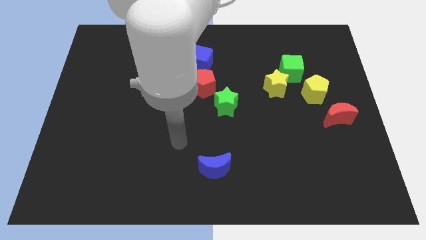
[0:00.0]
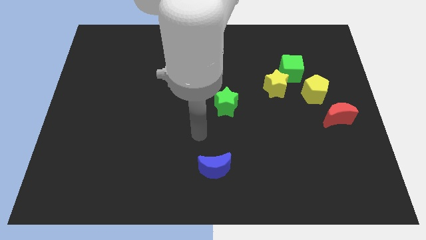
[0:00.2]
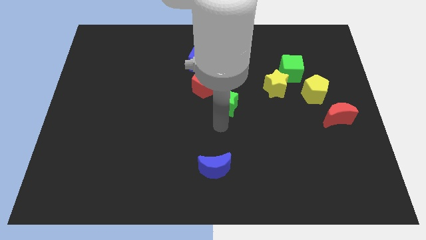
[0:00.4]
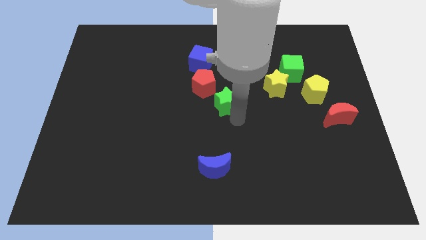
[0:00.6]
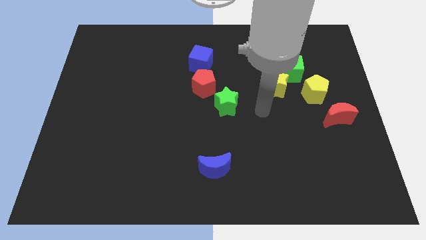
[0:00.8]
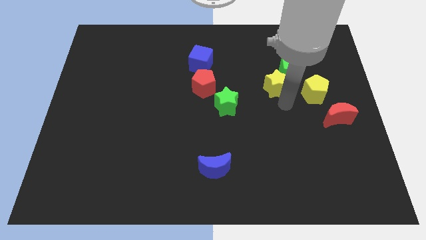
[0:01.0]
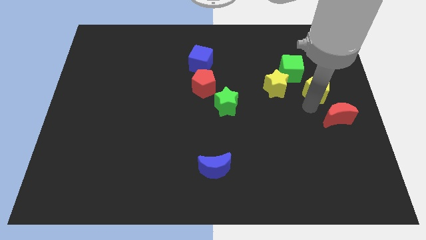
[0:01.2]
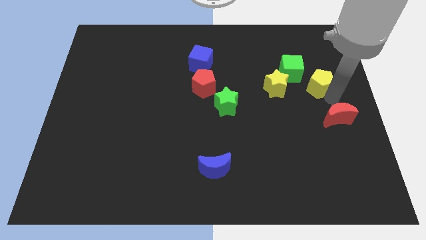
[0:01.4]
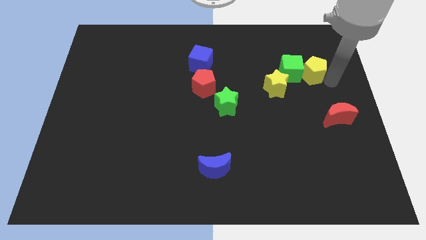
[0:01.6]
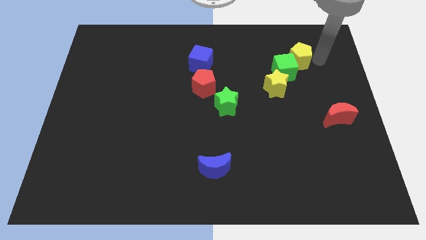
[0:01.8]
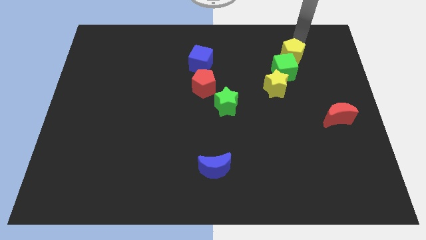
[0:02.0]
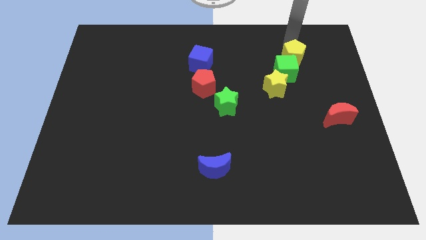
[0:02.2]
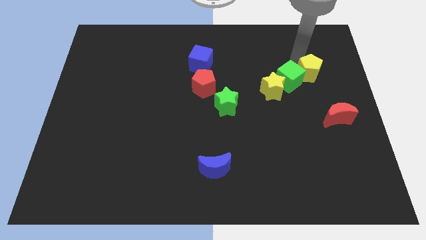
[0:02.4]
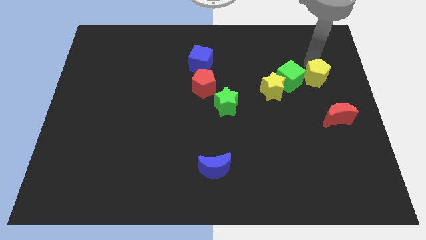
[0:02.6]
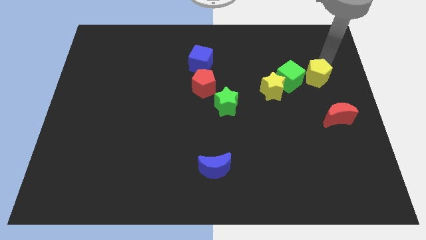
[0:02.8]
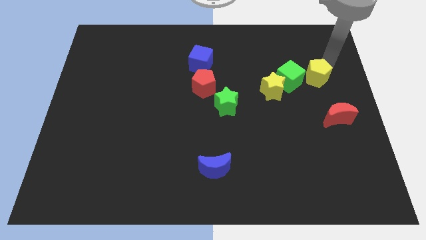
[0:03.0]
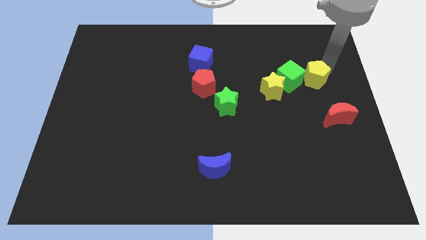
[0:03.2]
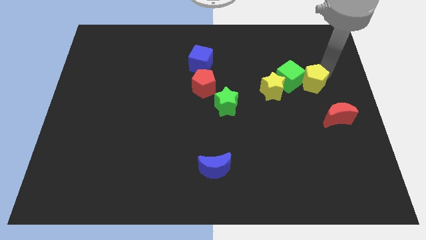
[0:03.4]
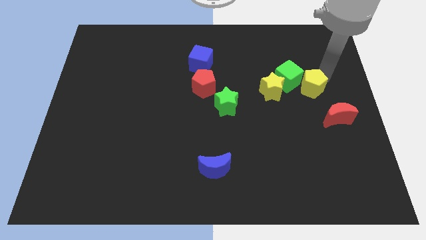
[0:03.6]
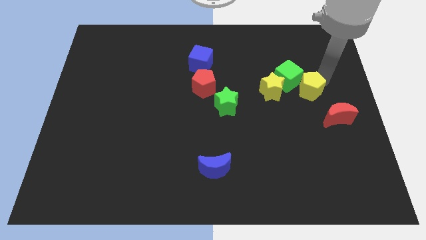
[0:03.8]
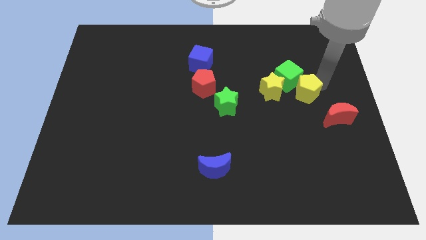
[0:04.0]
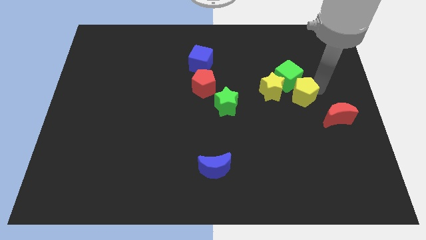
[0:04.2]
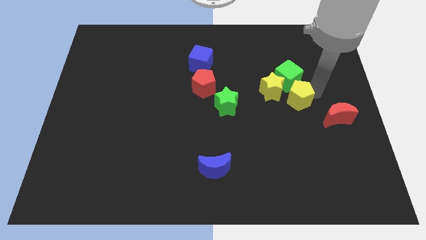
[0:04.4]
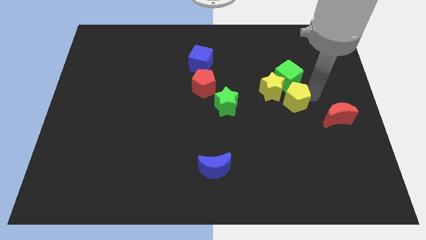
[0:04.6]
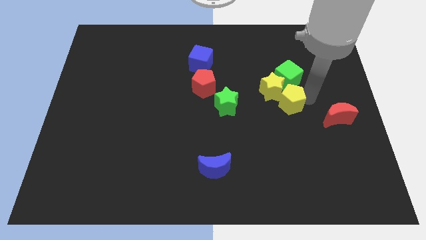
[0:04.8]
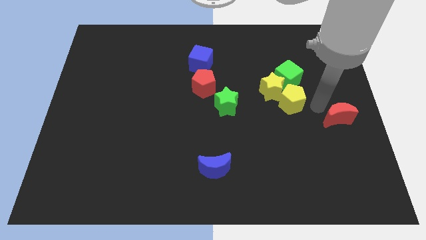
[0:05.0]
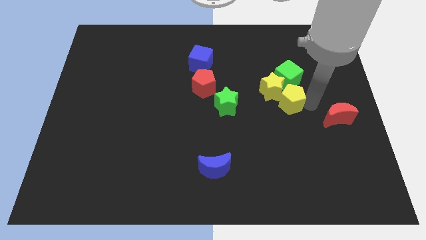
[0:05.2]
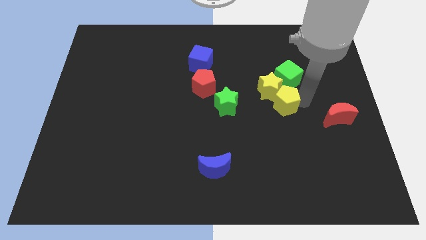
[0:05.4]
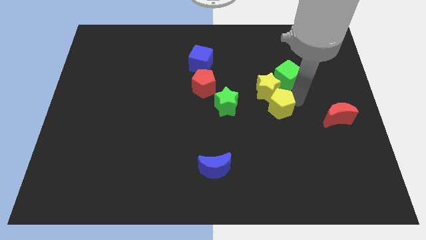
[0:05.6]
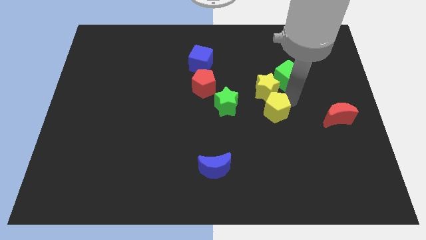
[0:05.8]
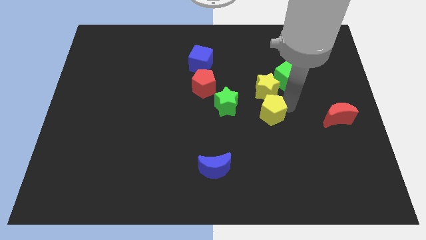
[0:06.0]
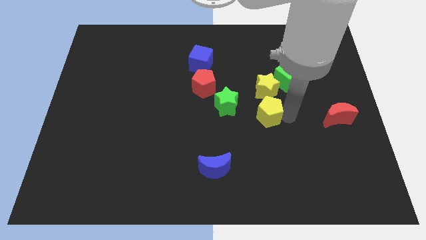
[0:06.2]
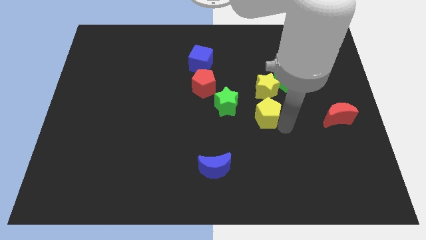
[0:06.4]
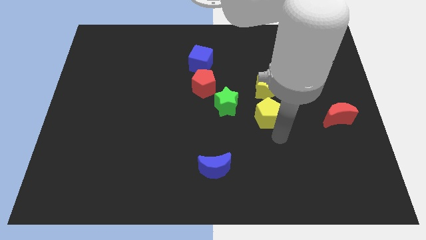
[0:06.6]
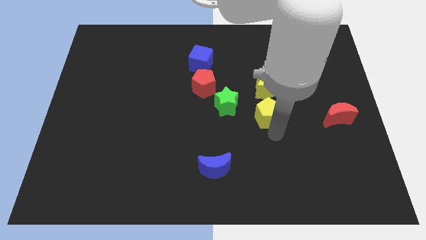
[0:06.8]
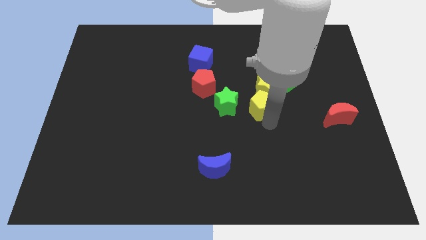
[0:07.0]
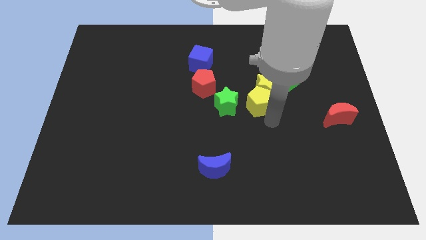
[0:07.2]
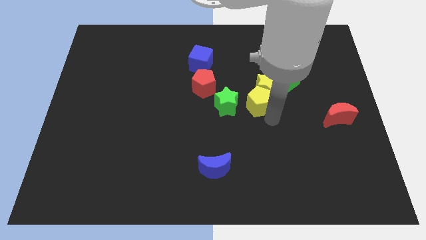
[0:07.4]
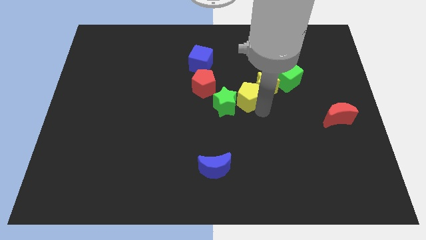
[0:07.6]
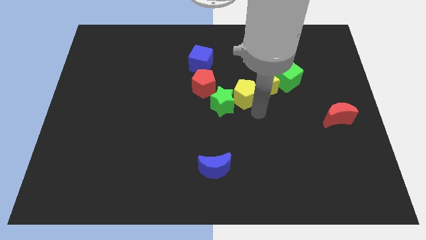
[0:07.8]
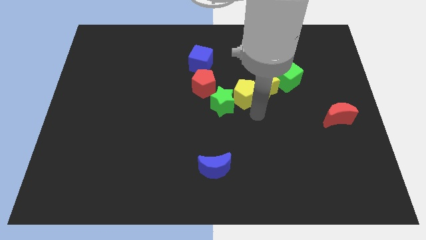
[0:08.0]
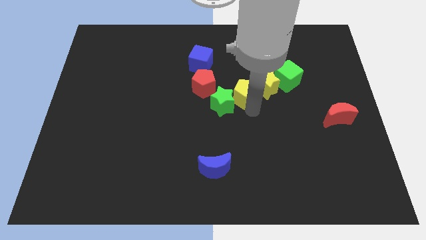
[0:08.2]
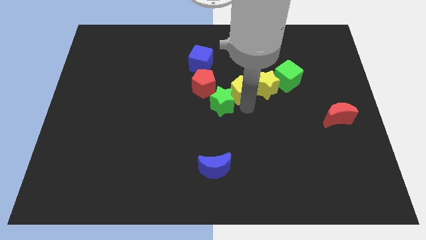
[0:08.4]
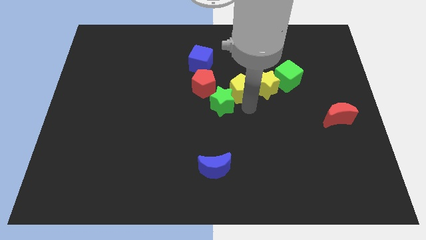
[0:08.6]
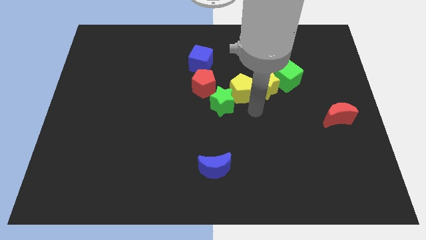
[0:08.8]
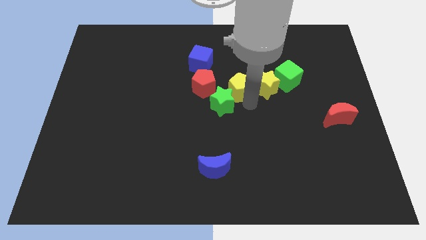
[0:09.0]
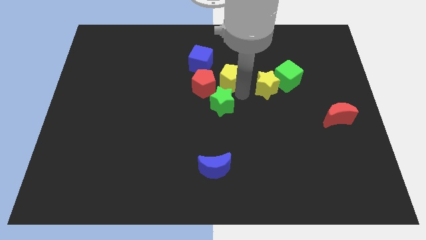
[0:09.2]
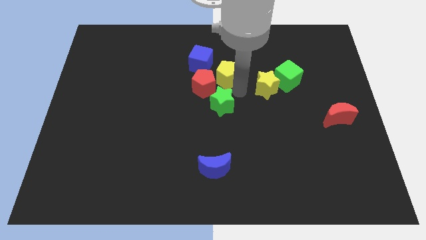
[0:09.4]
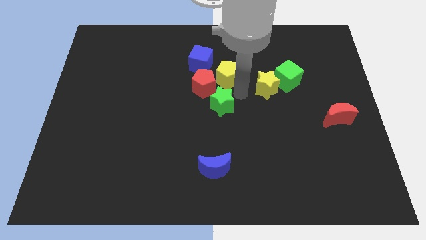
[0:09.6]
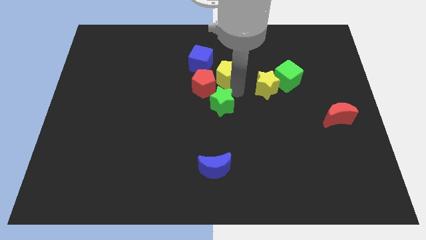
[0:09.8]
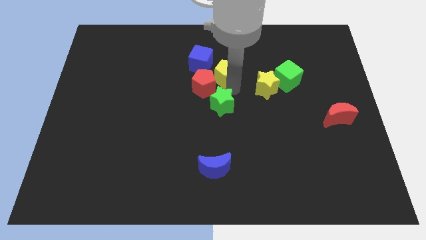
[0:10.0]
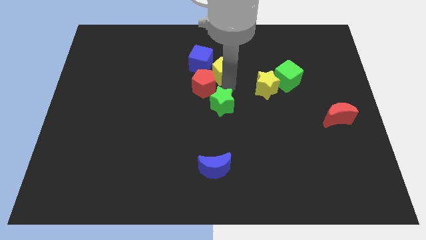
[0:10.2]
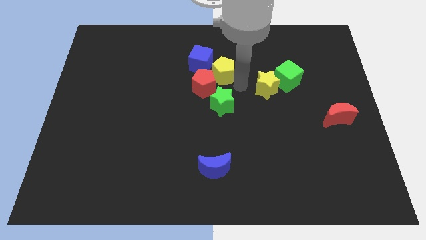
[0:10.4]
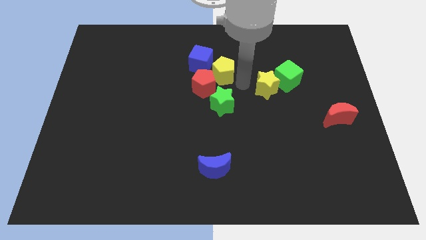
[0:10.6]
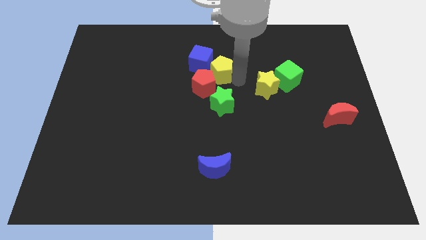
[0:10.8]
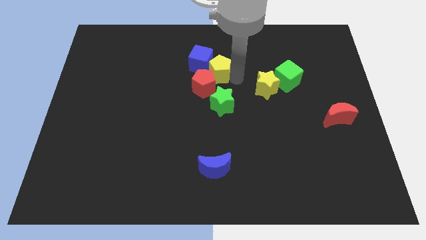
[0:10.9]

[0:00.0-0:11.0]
slide the yellow pentagon next to the blue cube

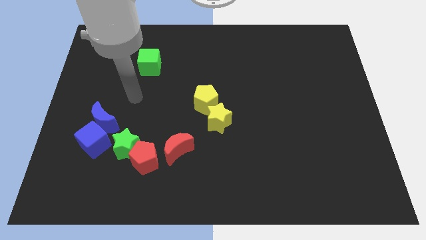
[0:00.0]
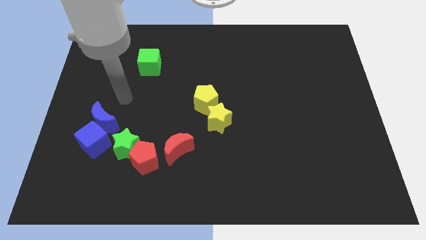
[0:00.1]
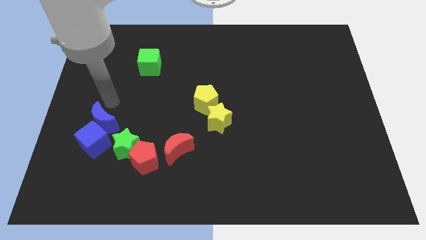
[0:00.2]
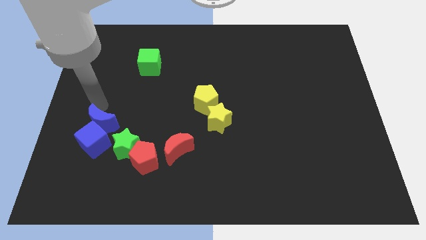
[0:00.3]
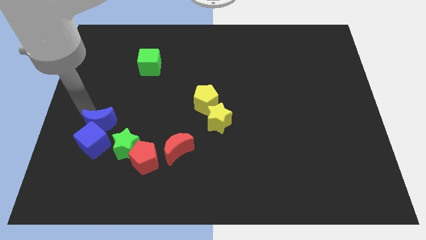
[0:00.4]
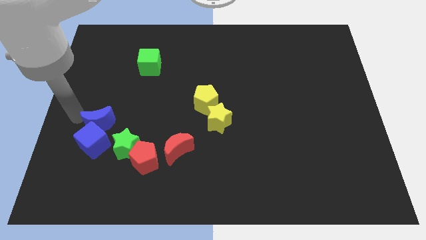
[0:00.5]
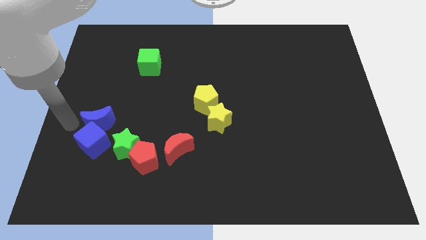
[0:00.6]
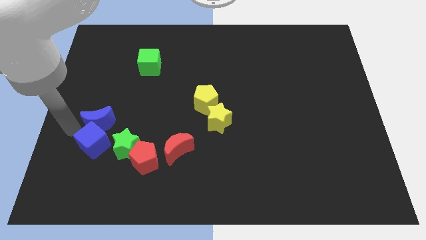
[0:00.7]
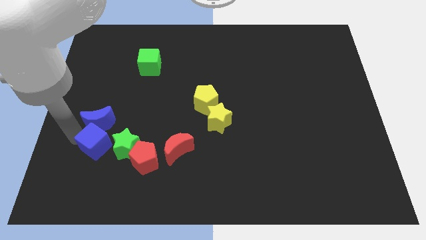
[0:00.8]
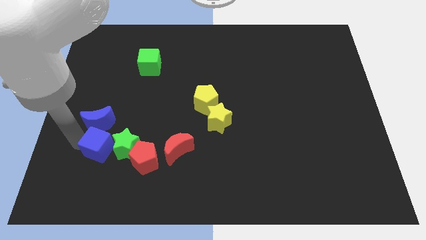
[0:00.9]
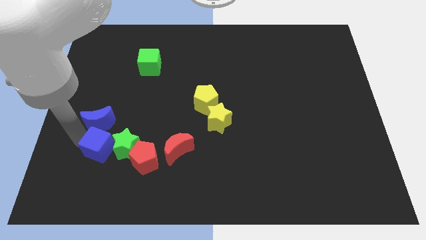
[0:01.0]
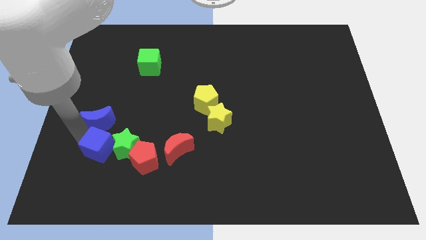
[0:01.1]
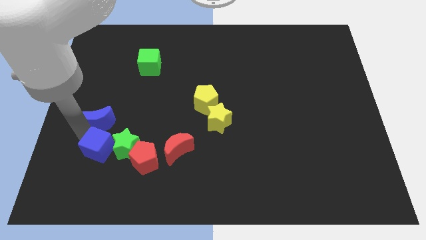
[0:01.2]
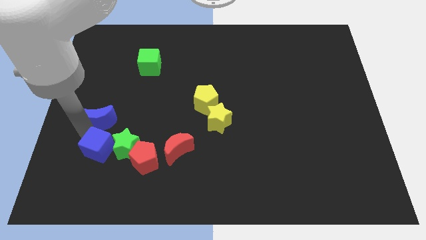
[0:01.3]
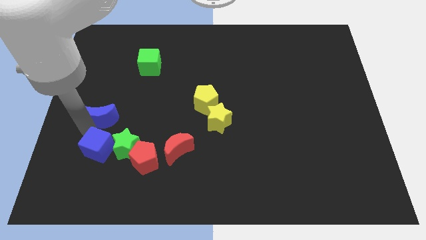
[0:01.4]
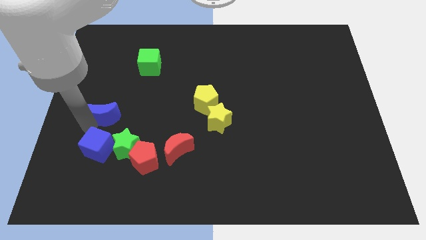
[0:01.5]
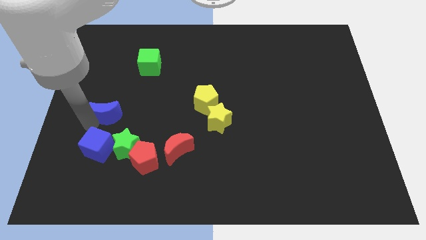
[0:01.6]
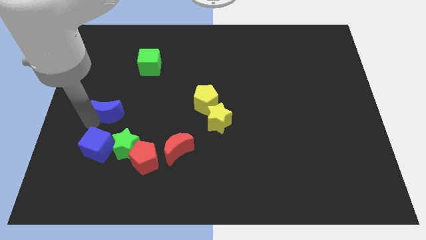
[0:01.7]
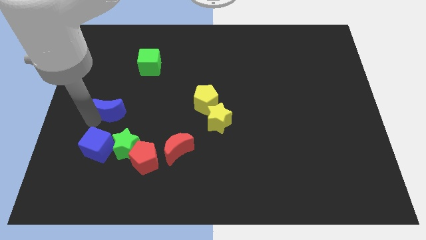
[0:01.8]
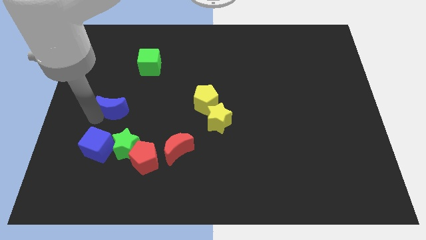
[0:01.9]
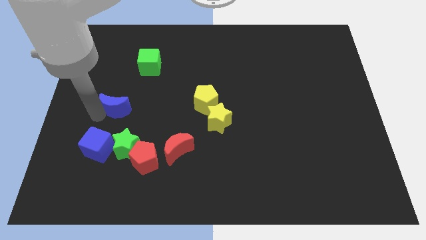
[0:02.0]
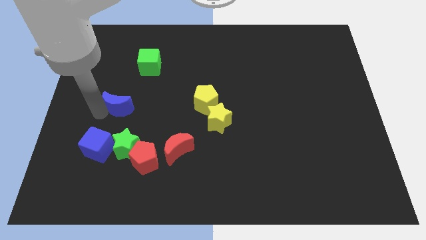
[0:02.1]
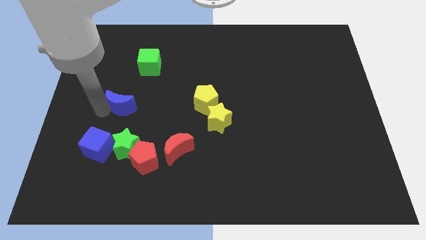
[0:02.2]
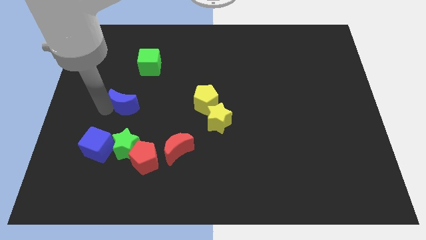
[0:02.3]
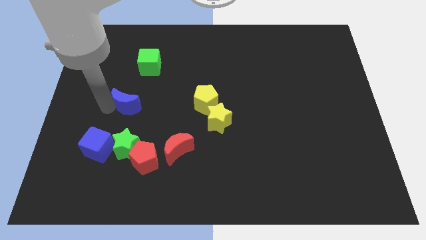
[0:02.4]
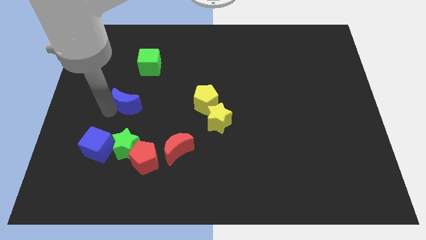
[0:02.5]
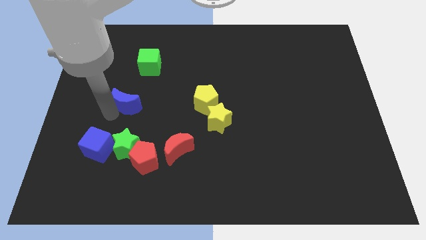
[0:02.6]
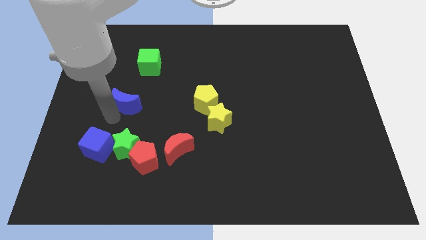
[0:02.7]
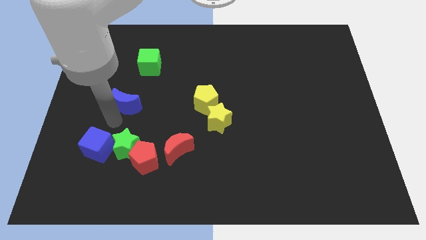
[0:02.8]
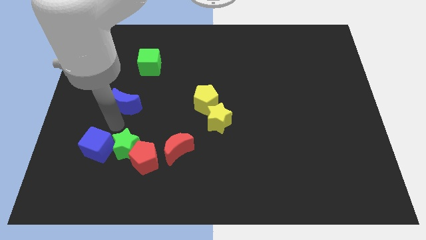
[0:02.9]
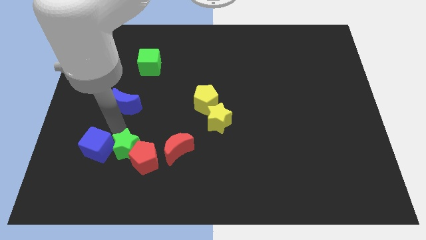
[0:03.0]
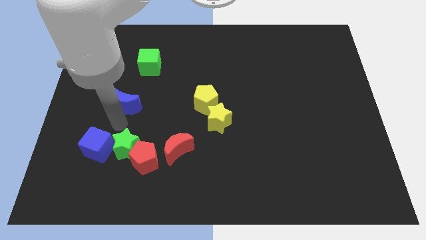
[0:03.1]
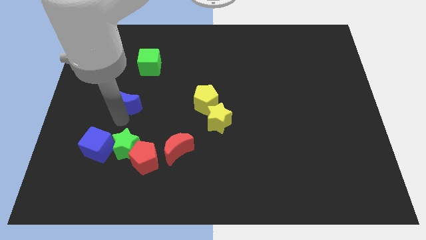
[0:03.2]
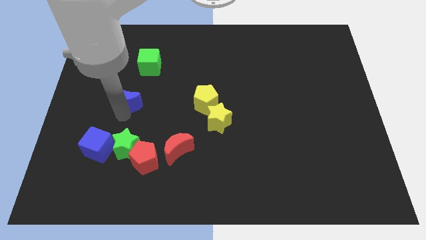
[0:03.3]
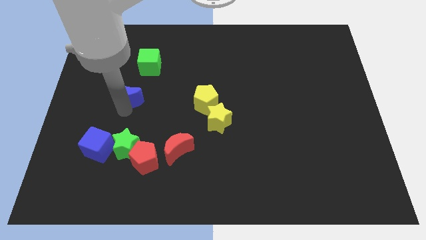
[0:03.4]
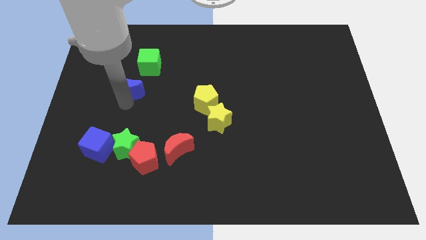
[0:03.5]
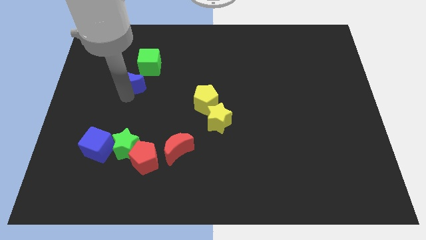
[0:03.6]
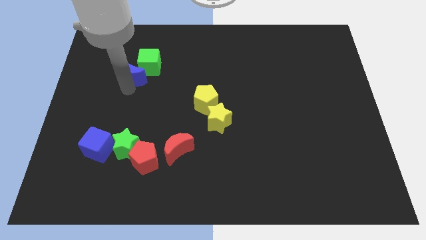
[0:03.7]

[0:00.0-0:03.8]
move the blue moon close to the green cube
